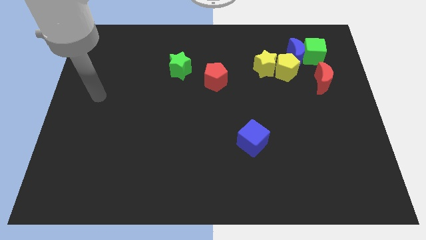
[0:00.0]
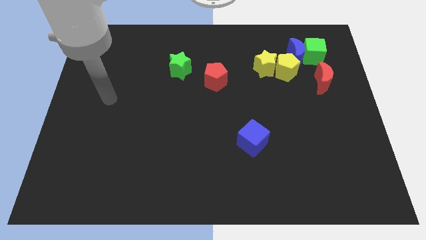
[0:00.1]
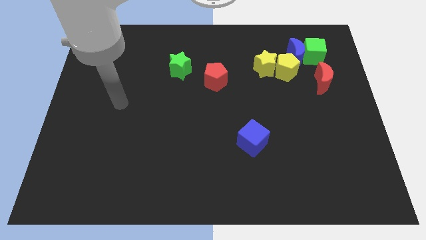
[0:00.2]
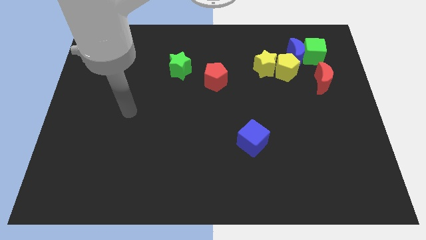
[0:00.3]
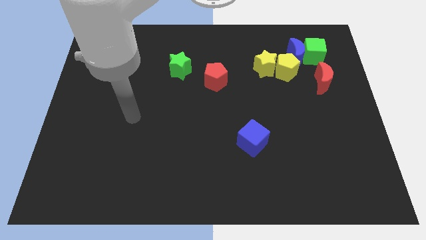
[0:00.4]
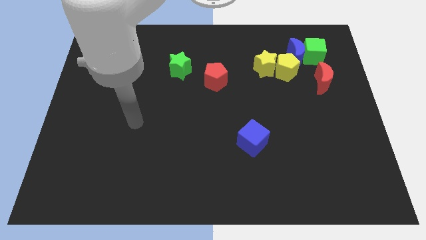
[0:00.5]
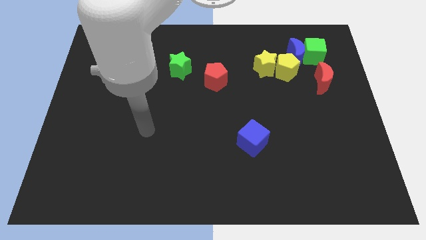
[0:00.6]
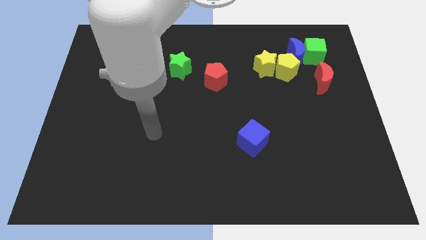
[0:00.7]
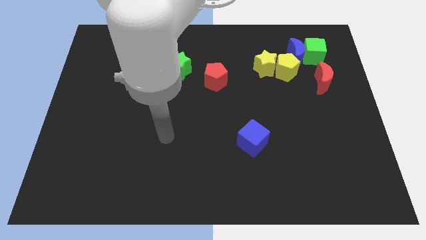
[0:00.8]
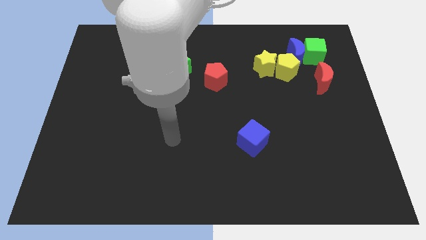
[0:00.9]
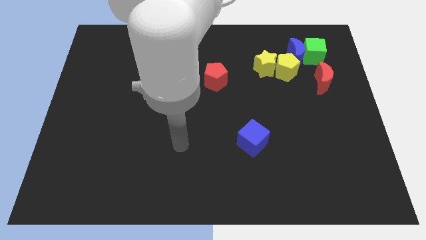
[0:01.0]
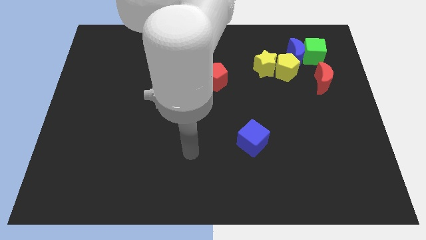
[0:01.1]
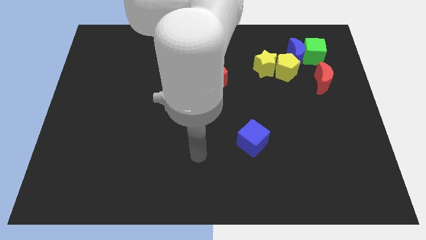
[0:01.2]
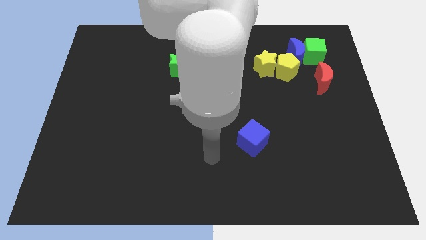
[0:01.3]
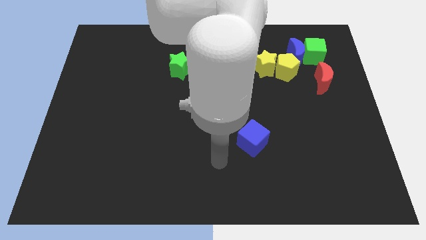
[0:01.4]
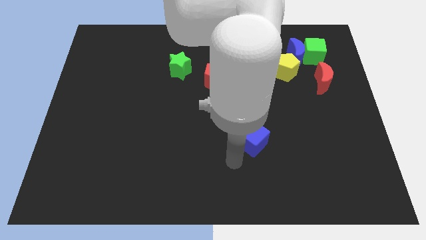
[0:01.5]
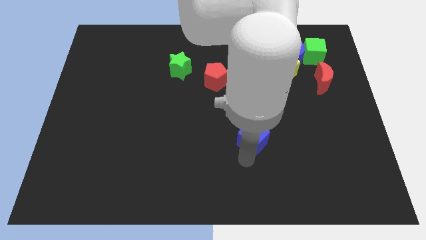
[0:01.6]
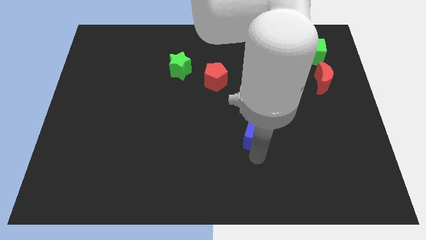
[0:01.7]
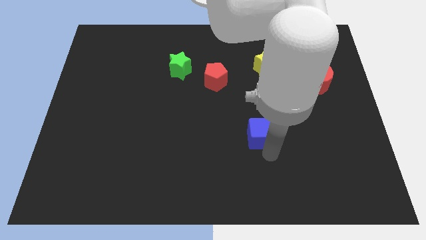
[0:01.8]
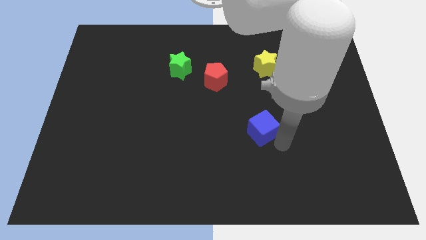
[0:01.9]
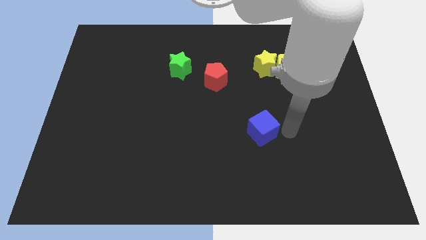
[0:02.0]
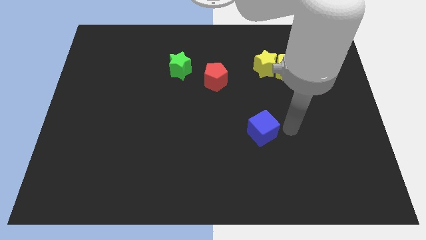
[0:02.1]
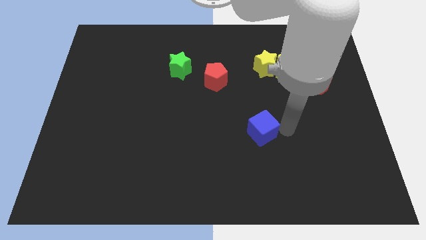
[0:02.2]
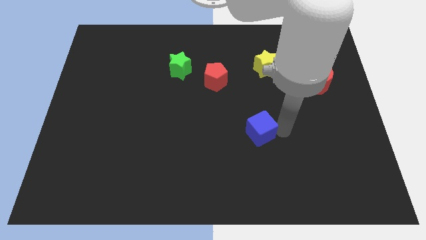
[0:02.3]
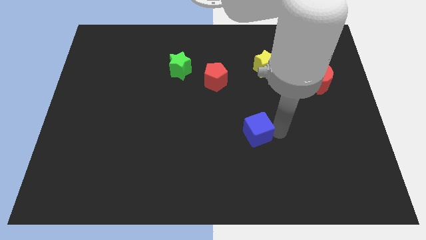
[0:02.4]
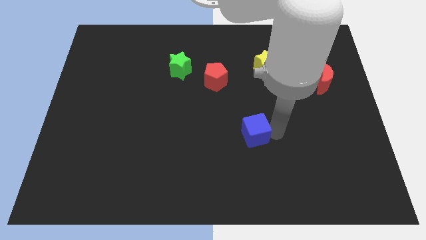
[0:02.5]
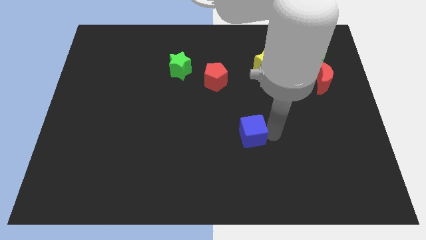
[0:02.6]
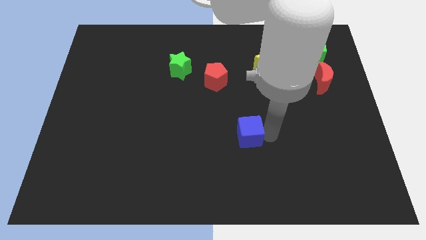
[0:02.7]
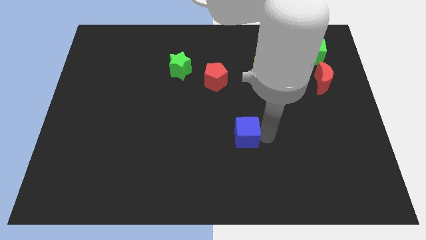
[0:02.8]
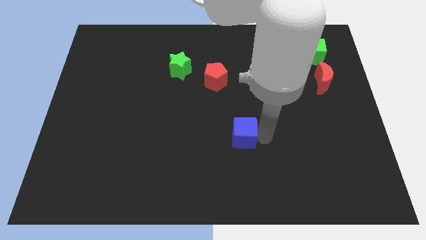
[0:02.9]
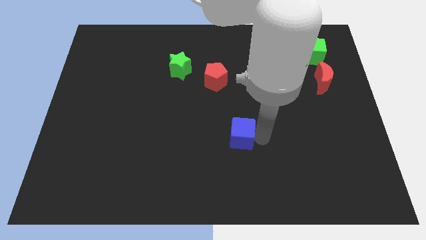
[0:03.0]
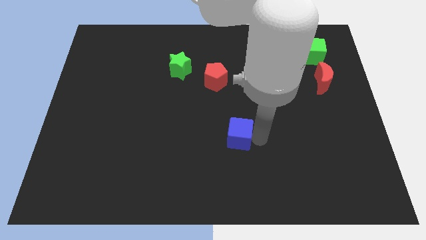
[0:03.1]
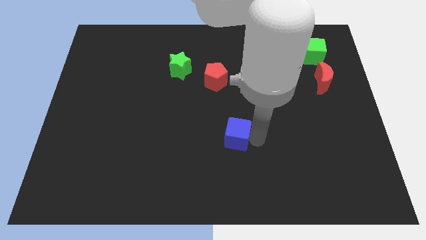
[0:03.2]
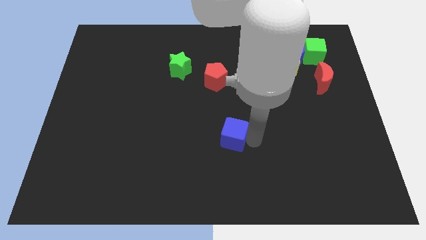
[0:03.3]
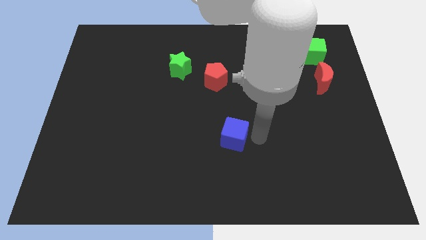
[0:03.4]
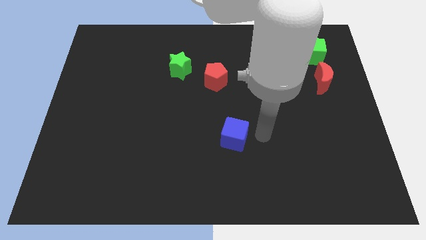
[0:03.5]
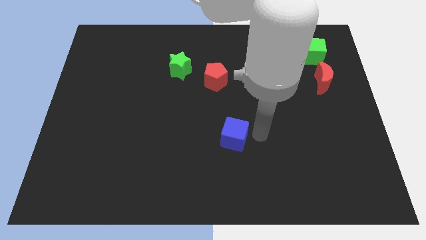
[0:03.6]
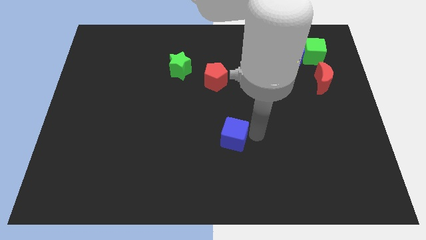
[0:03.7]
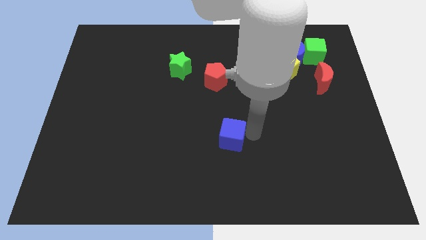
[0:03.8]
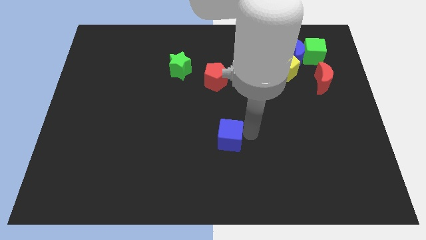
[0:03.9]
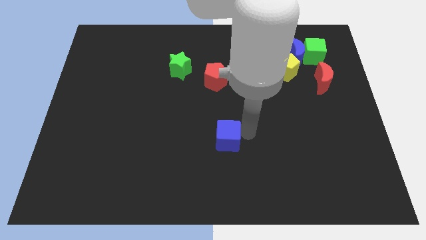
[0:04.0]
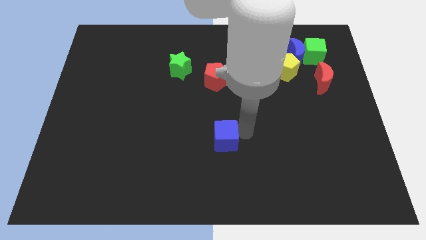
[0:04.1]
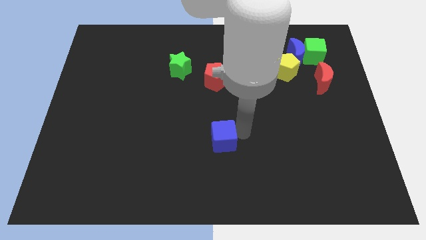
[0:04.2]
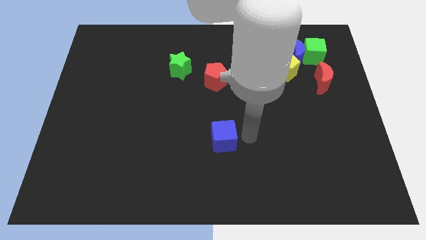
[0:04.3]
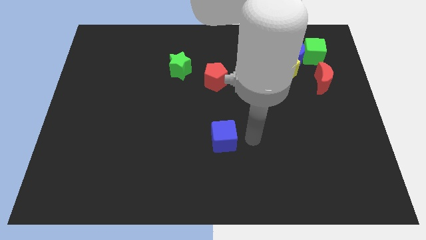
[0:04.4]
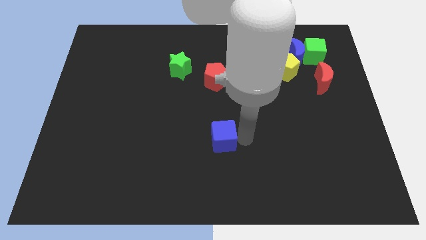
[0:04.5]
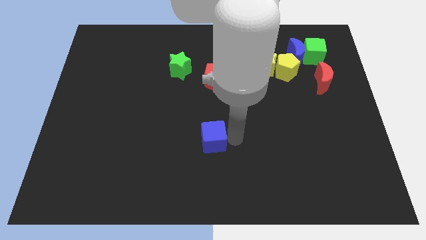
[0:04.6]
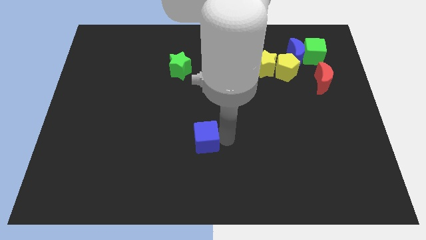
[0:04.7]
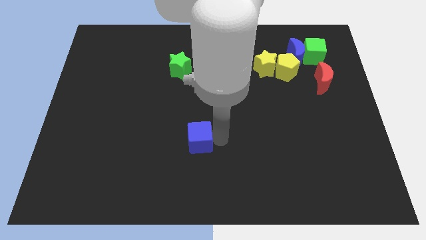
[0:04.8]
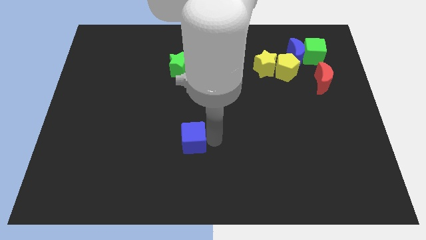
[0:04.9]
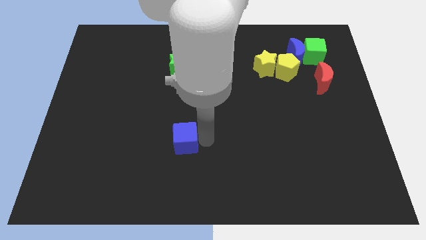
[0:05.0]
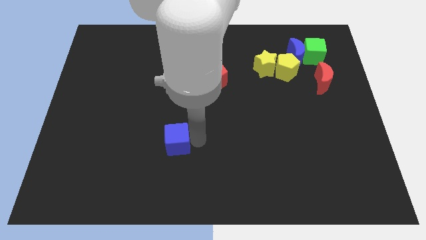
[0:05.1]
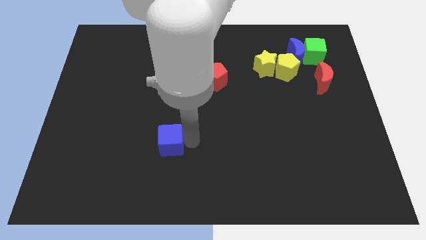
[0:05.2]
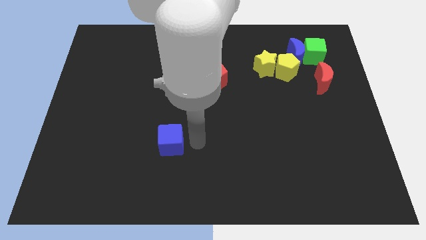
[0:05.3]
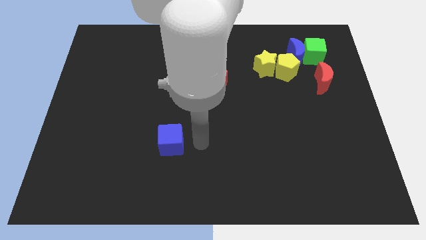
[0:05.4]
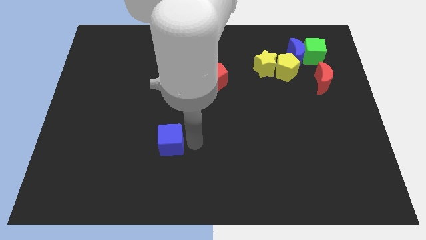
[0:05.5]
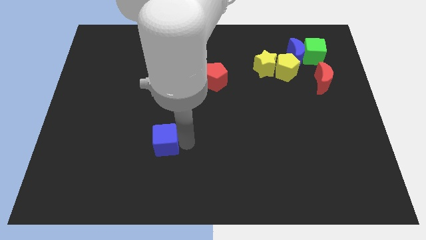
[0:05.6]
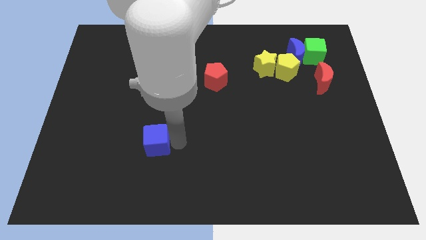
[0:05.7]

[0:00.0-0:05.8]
move the blue cube left

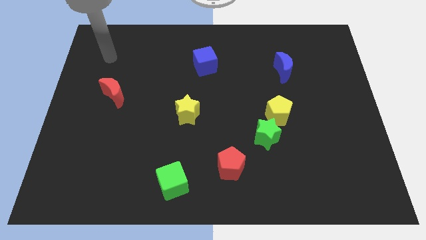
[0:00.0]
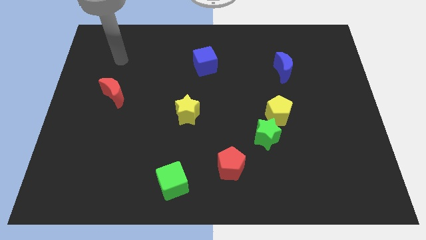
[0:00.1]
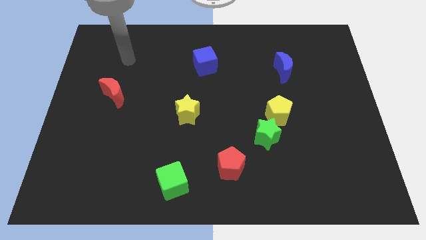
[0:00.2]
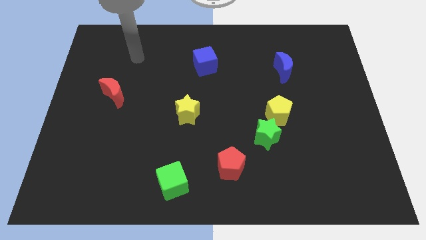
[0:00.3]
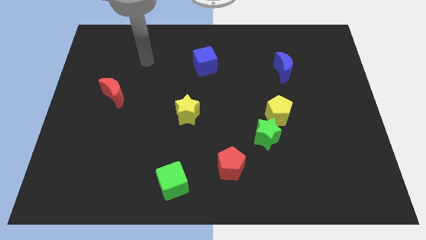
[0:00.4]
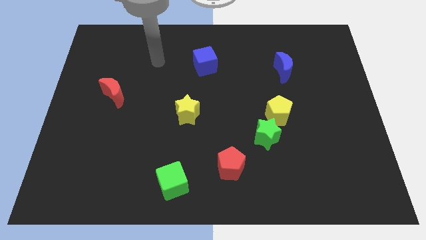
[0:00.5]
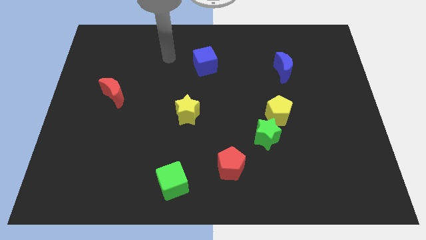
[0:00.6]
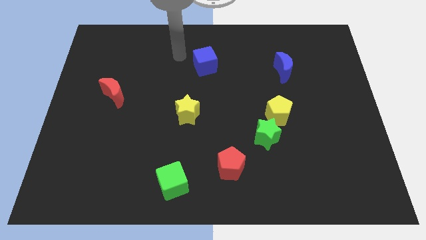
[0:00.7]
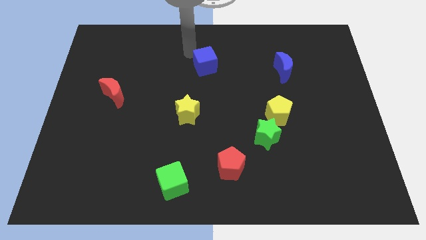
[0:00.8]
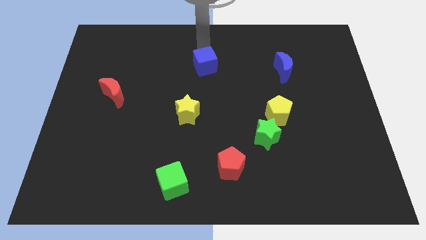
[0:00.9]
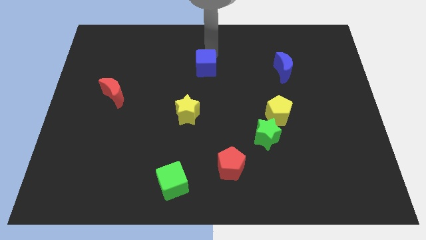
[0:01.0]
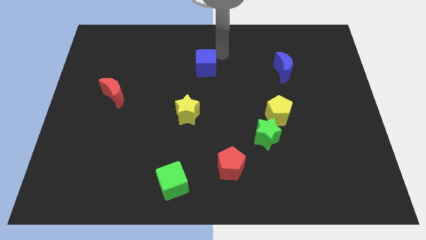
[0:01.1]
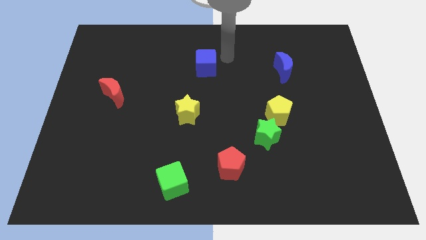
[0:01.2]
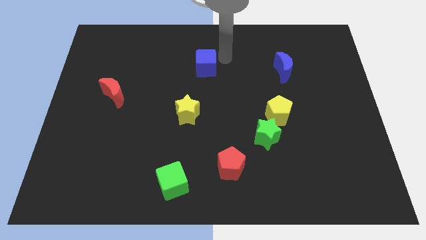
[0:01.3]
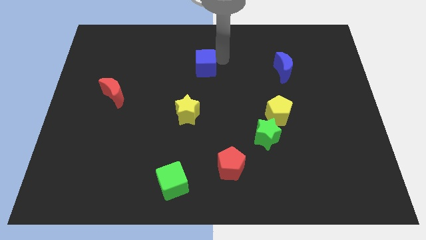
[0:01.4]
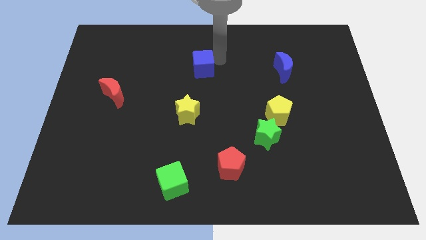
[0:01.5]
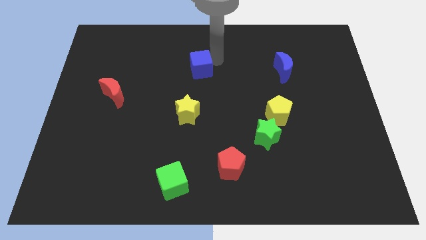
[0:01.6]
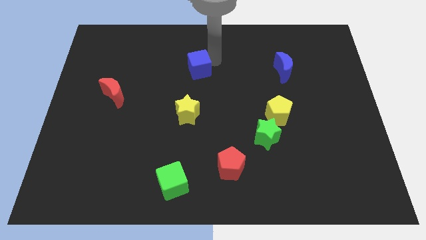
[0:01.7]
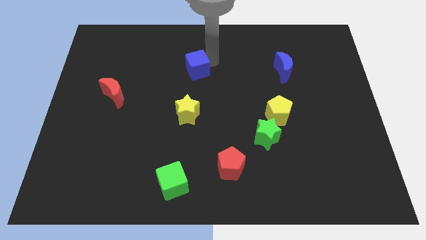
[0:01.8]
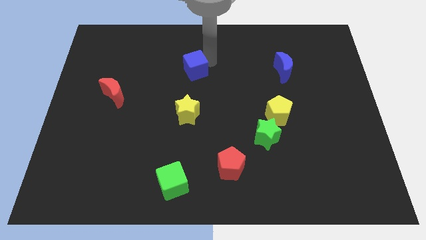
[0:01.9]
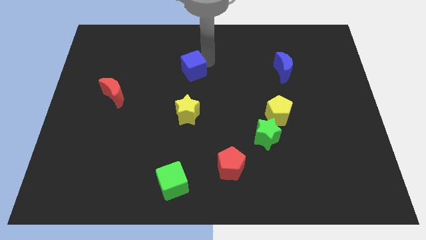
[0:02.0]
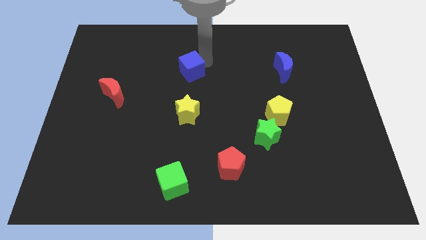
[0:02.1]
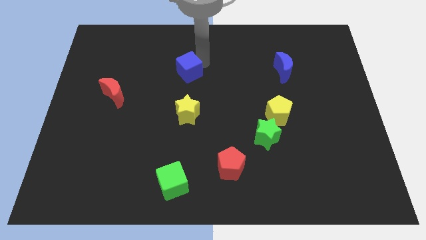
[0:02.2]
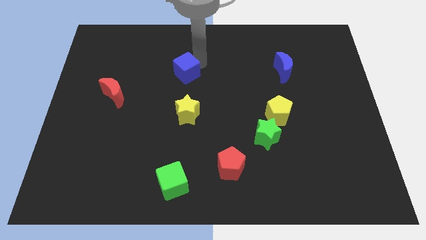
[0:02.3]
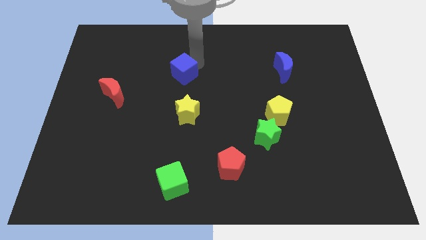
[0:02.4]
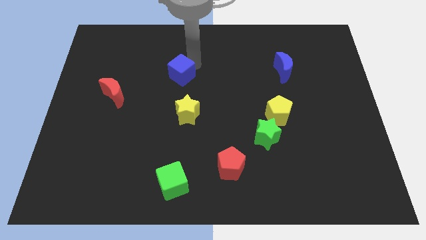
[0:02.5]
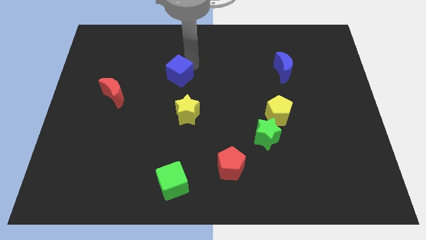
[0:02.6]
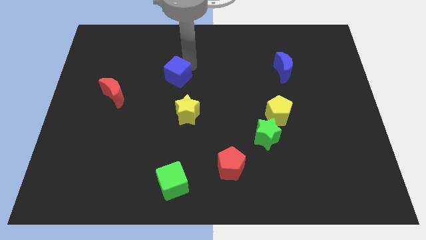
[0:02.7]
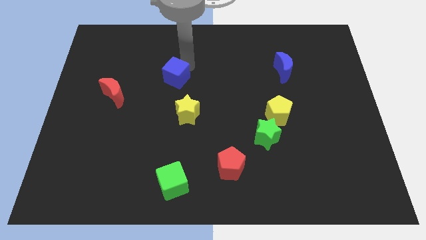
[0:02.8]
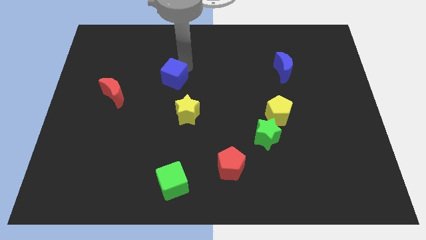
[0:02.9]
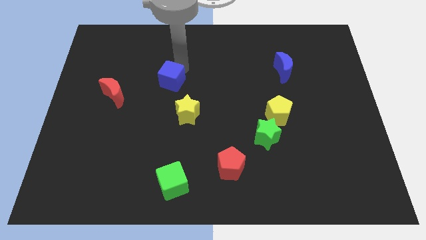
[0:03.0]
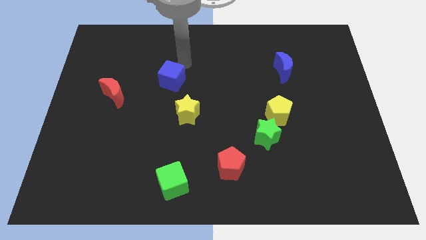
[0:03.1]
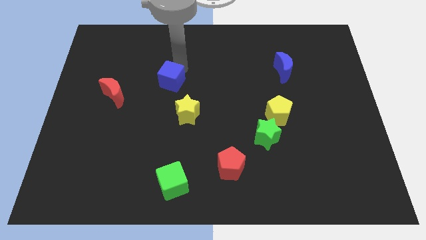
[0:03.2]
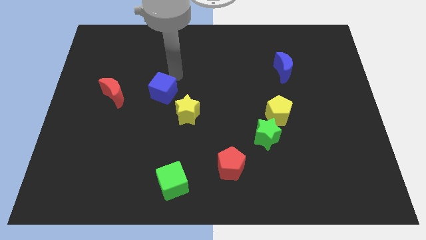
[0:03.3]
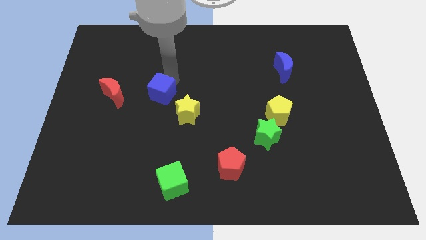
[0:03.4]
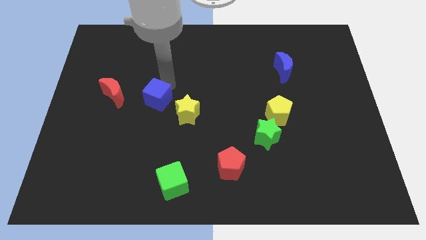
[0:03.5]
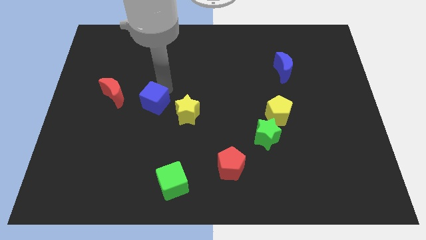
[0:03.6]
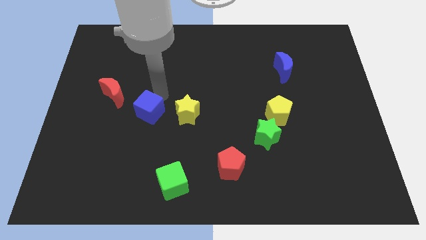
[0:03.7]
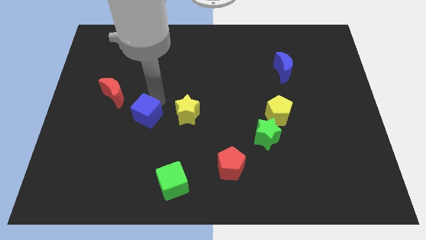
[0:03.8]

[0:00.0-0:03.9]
move the blue cube downwards and then left
